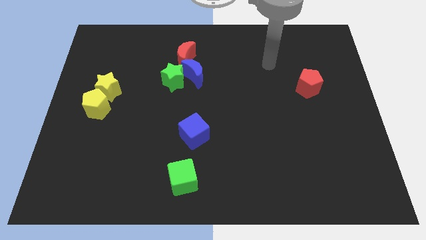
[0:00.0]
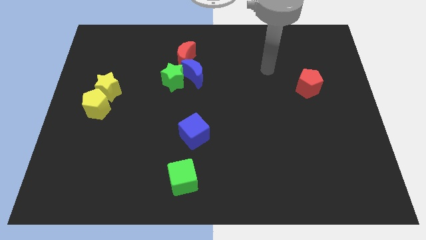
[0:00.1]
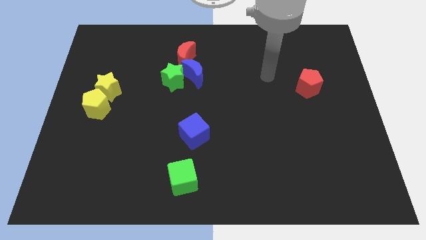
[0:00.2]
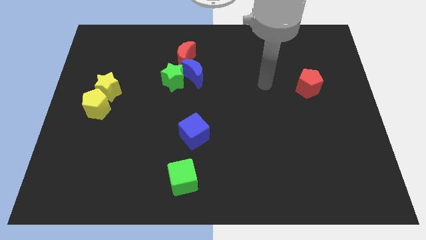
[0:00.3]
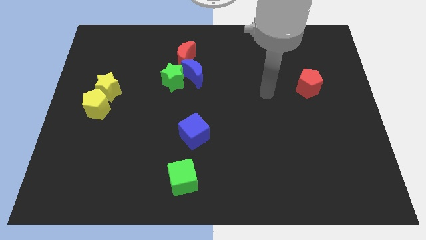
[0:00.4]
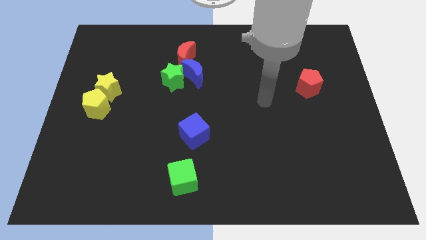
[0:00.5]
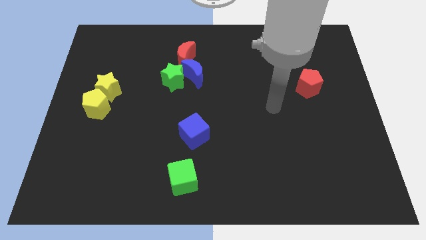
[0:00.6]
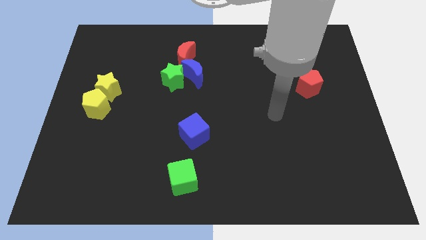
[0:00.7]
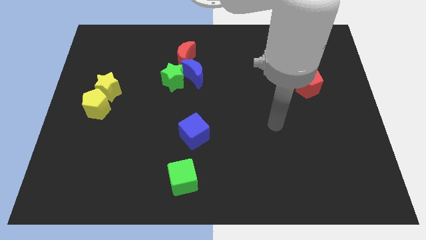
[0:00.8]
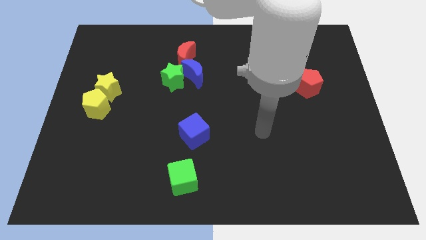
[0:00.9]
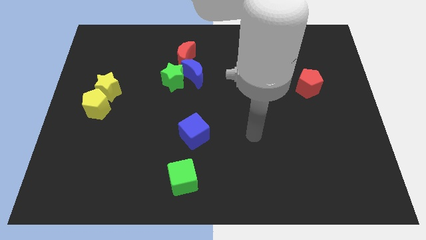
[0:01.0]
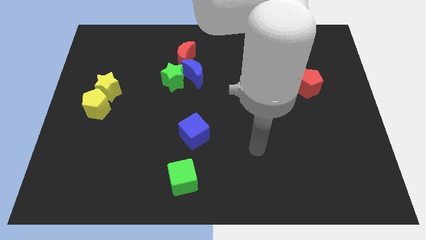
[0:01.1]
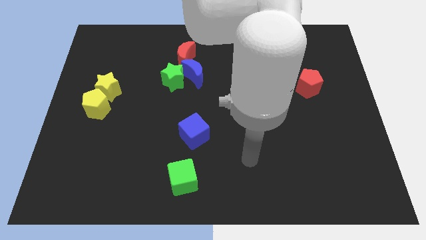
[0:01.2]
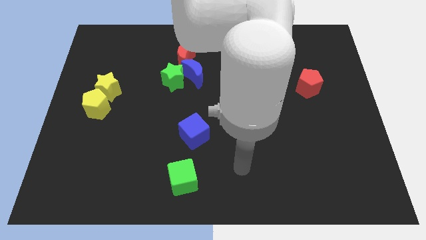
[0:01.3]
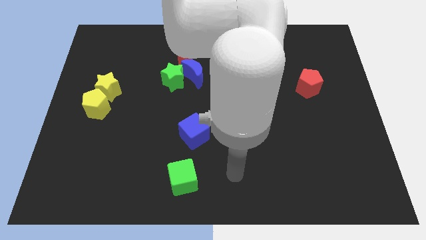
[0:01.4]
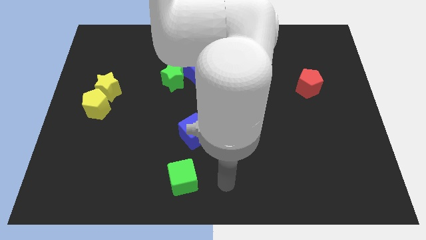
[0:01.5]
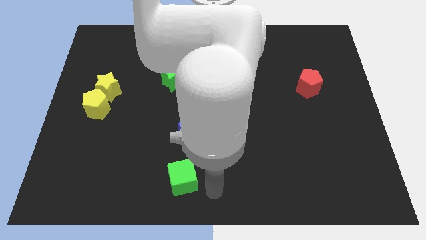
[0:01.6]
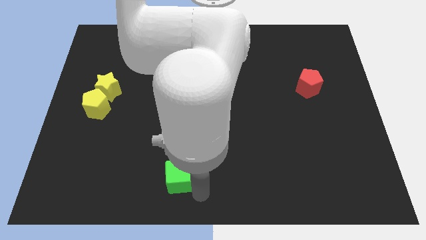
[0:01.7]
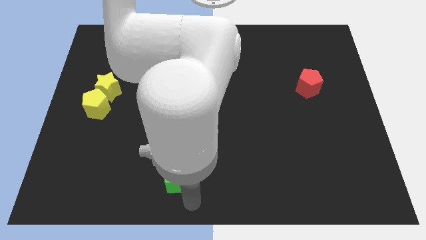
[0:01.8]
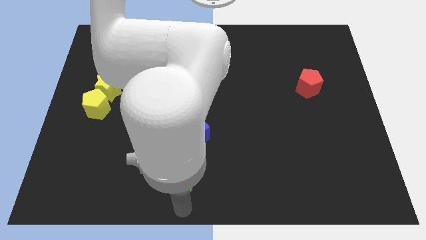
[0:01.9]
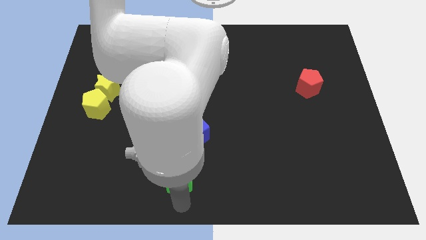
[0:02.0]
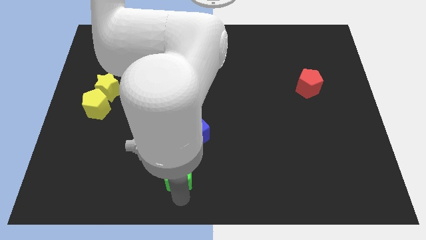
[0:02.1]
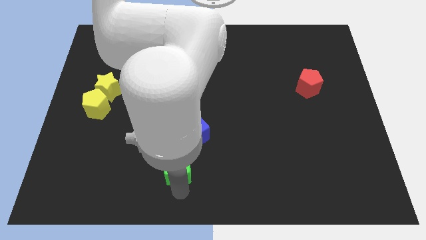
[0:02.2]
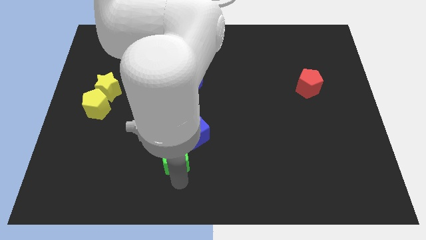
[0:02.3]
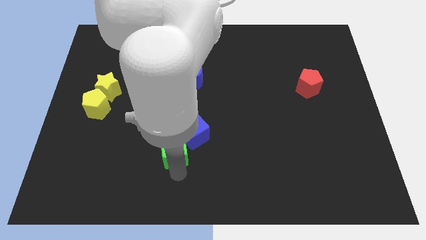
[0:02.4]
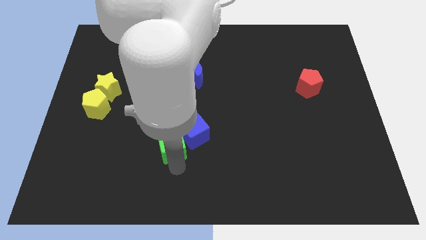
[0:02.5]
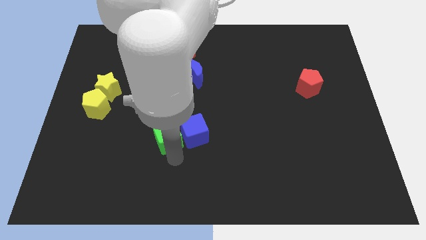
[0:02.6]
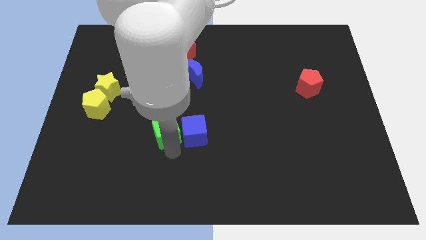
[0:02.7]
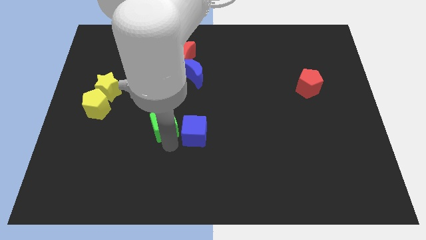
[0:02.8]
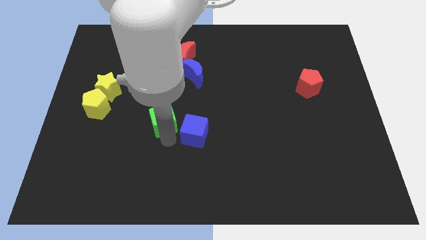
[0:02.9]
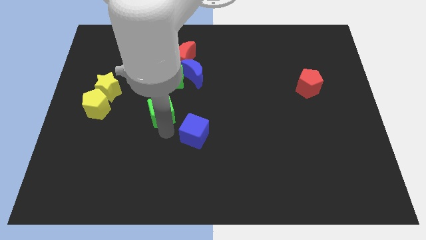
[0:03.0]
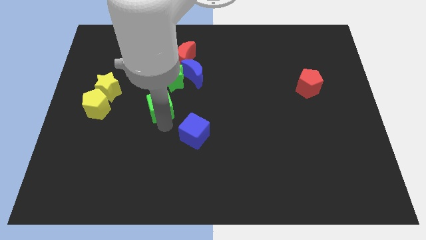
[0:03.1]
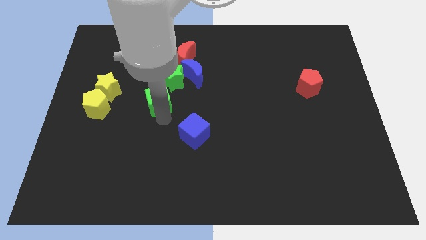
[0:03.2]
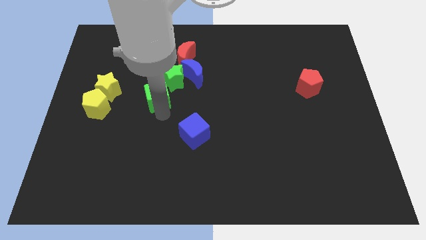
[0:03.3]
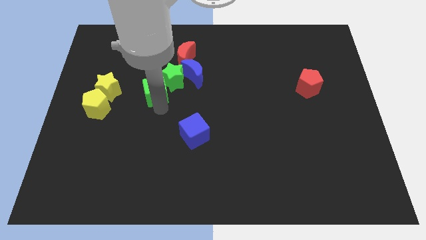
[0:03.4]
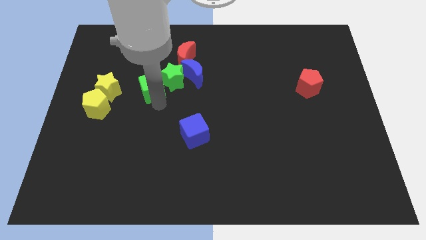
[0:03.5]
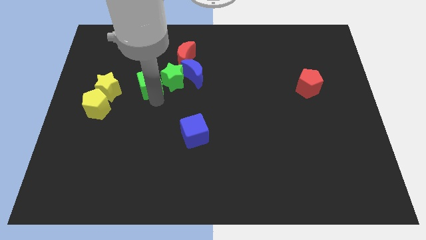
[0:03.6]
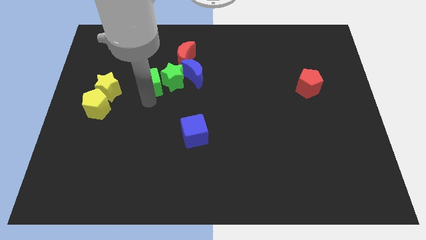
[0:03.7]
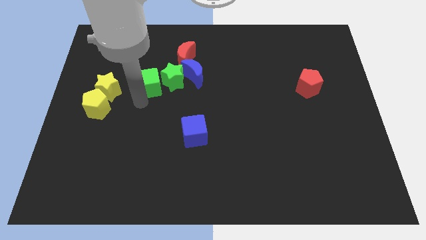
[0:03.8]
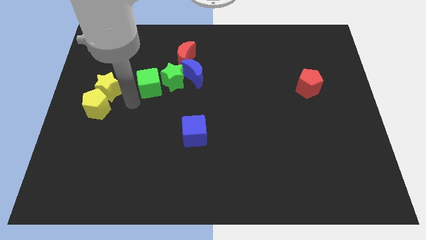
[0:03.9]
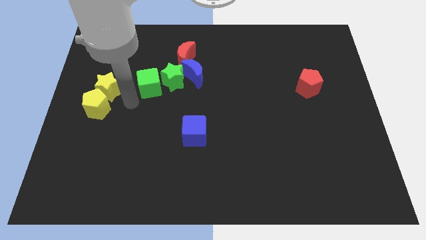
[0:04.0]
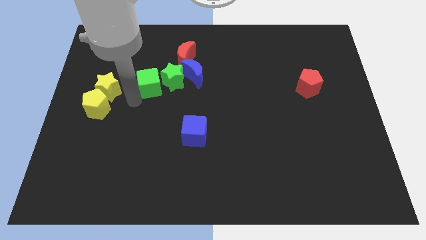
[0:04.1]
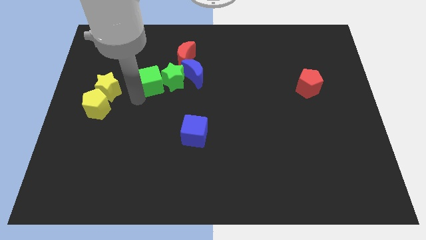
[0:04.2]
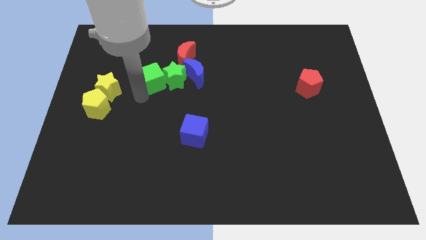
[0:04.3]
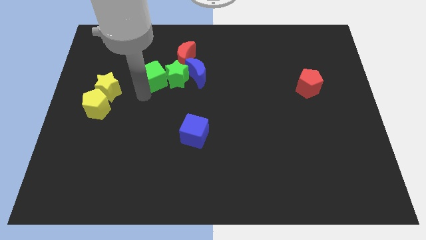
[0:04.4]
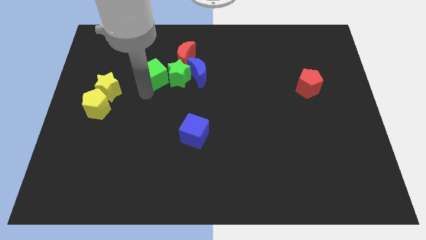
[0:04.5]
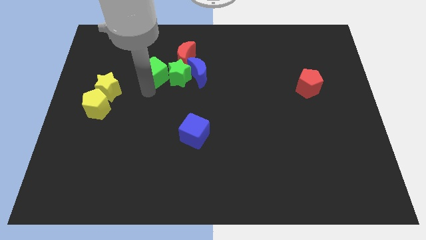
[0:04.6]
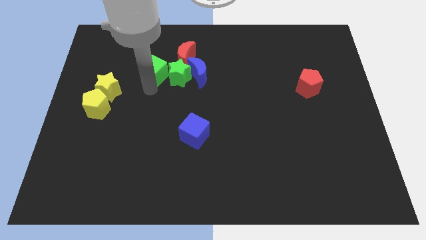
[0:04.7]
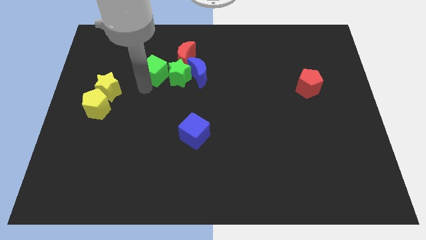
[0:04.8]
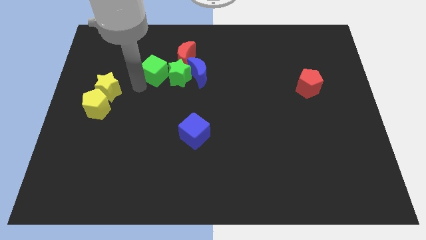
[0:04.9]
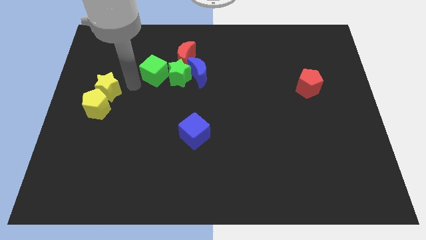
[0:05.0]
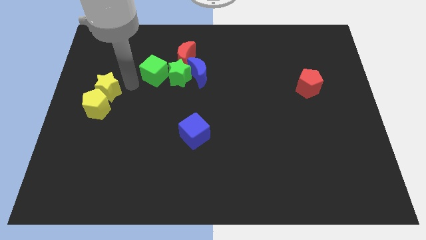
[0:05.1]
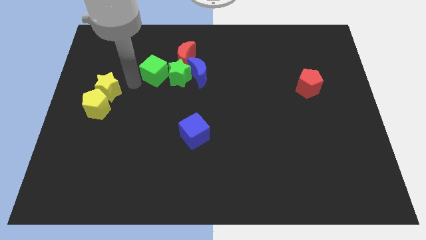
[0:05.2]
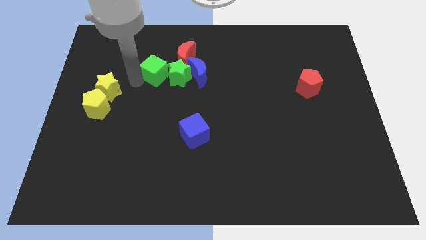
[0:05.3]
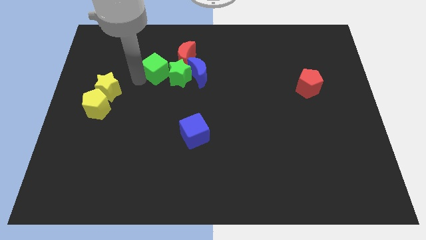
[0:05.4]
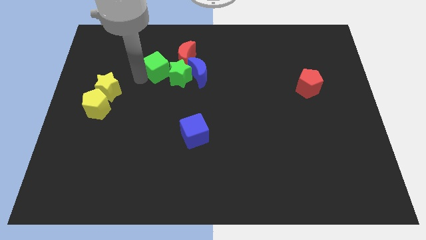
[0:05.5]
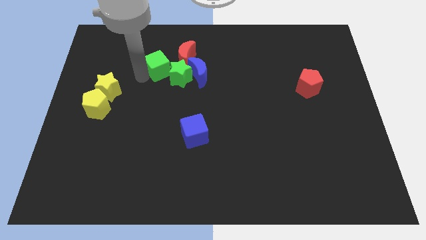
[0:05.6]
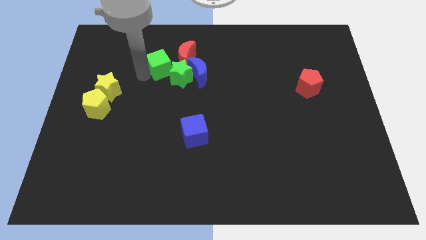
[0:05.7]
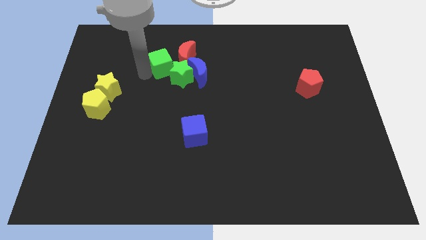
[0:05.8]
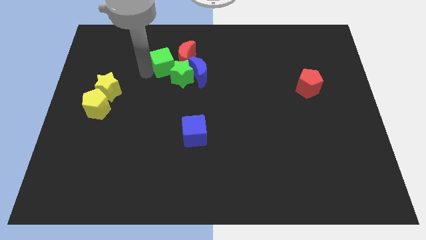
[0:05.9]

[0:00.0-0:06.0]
put the green cube to the red moon

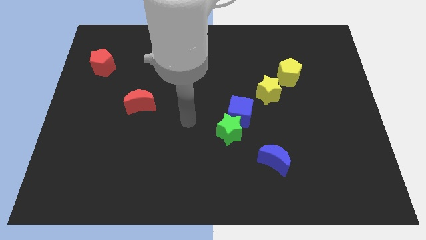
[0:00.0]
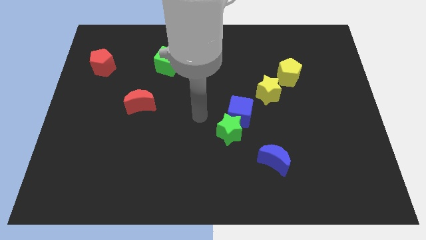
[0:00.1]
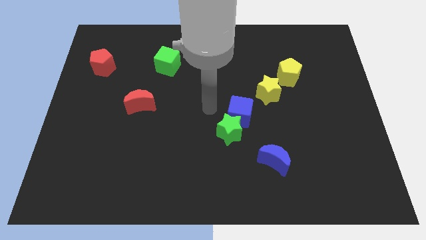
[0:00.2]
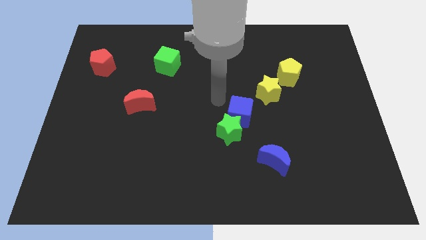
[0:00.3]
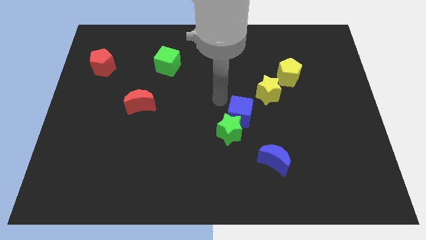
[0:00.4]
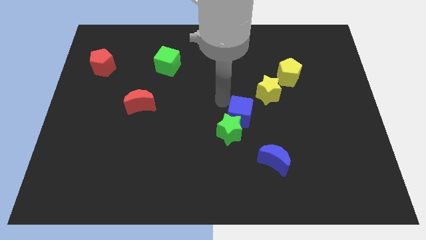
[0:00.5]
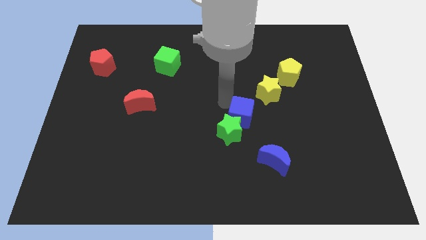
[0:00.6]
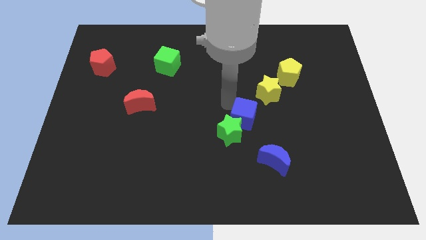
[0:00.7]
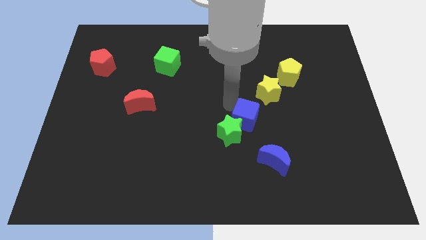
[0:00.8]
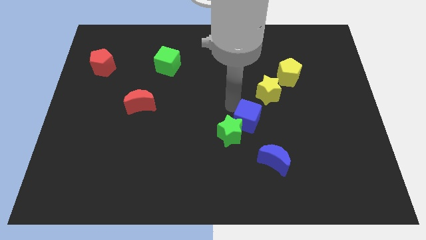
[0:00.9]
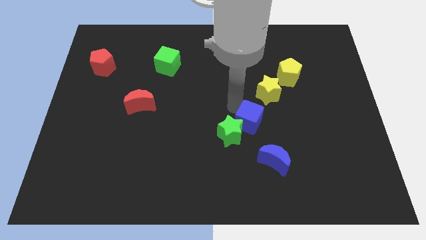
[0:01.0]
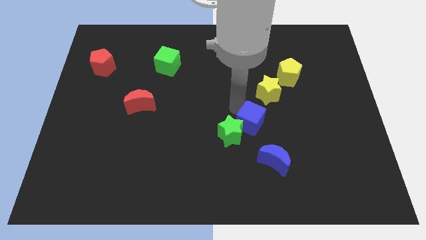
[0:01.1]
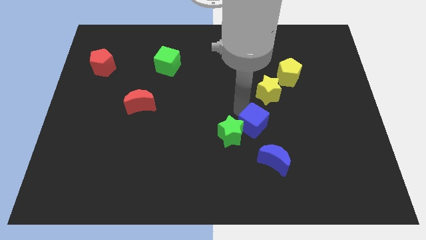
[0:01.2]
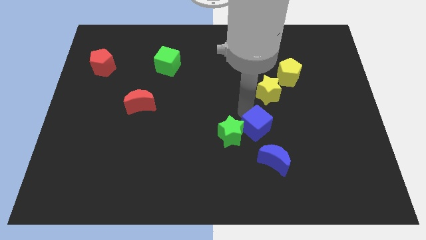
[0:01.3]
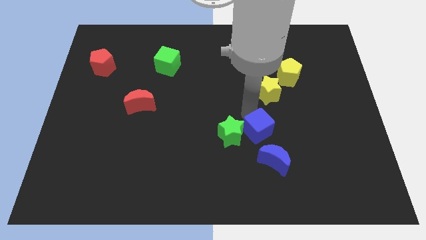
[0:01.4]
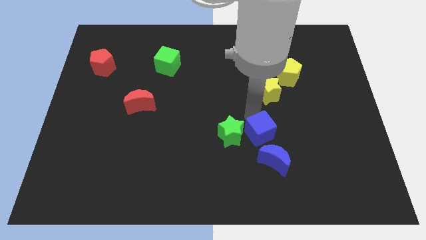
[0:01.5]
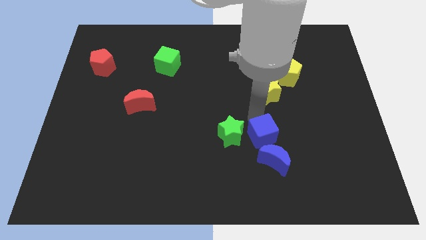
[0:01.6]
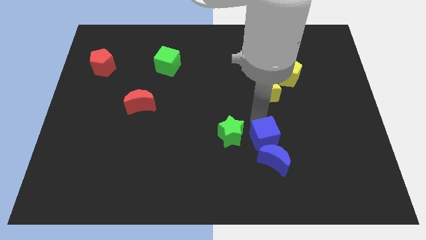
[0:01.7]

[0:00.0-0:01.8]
slide the blue cube next to the blue moon
